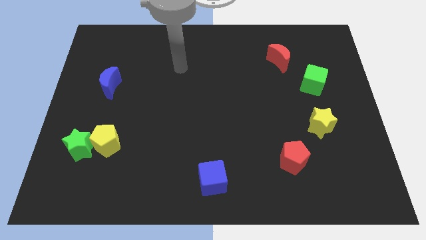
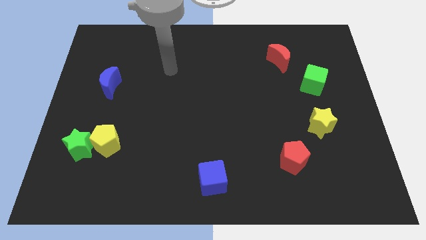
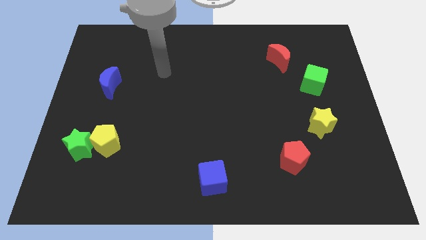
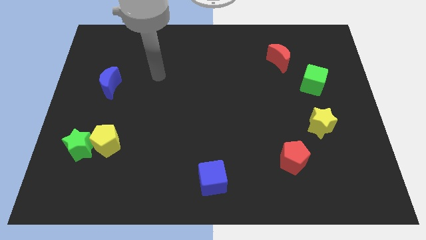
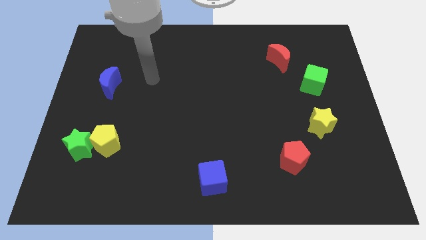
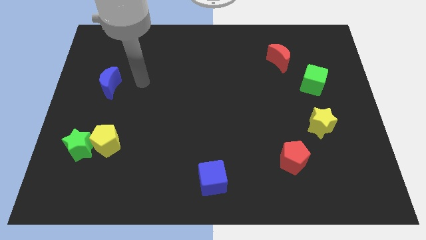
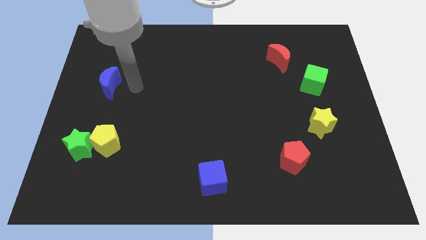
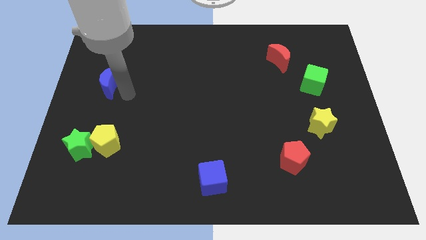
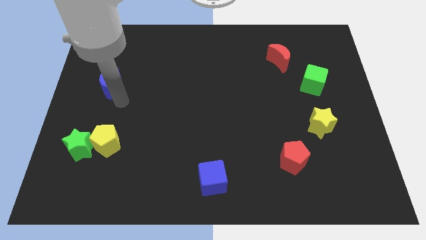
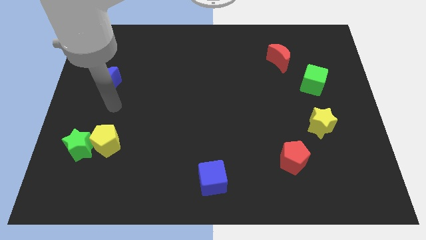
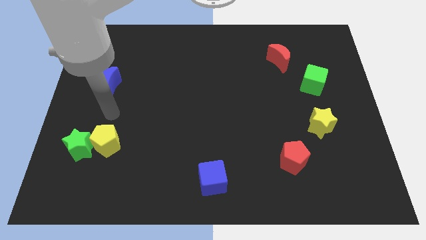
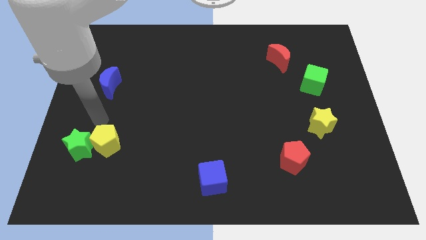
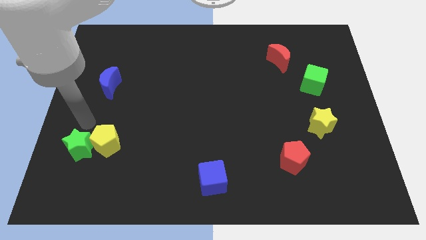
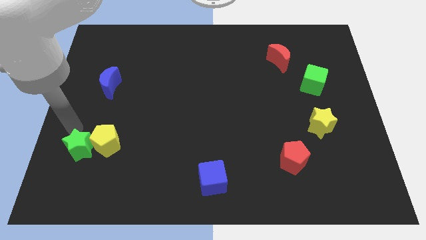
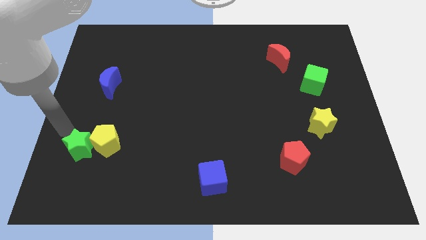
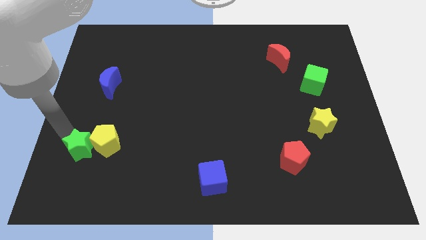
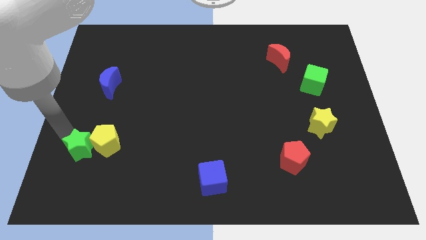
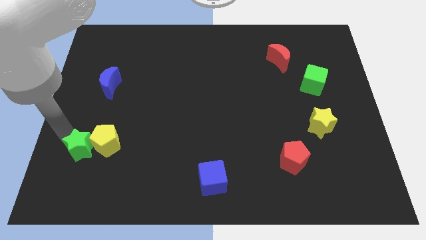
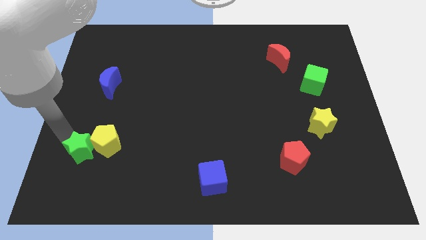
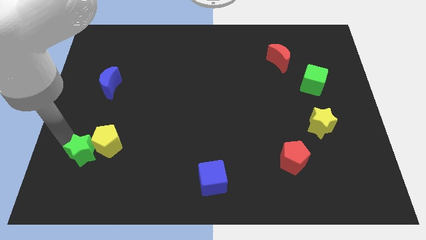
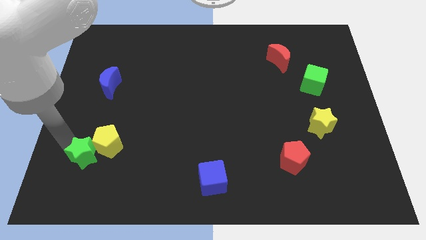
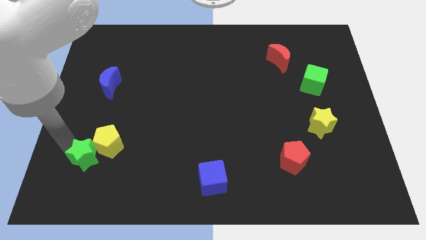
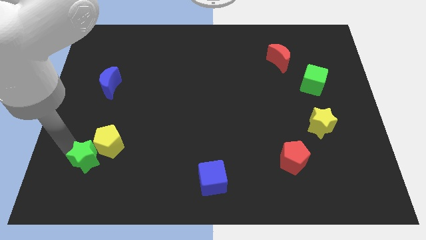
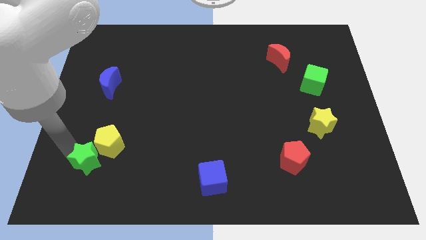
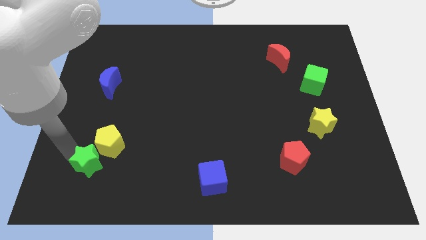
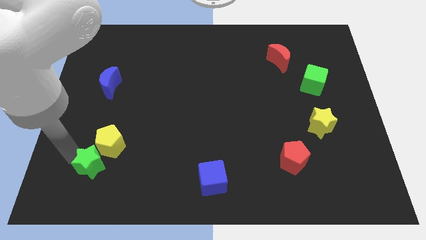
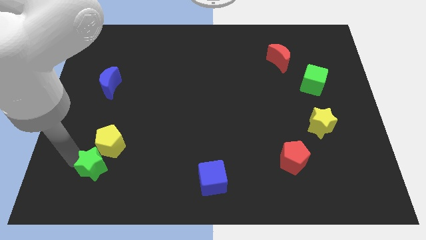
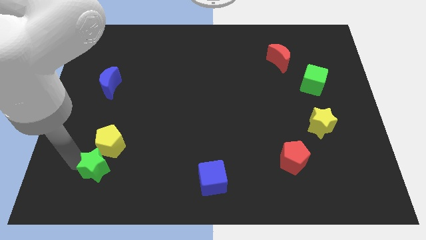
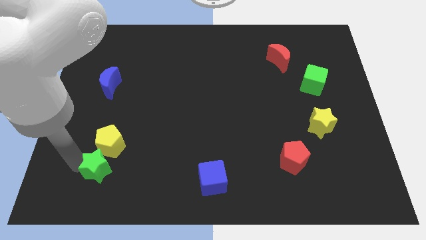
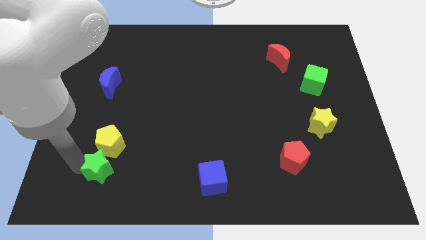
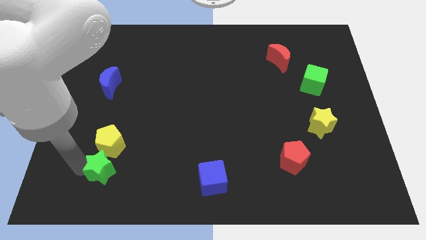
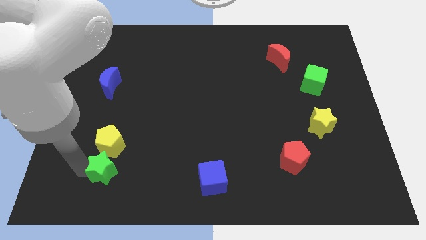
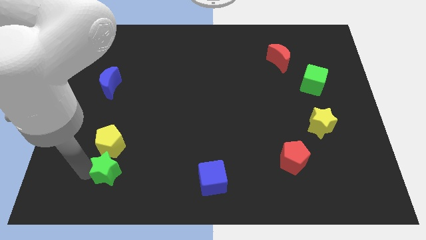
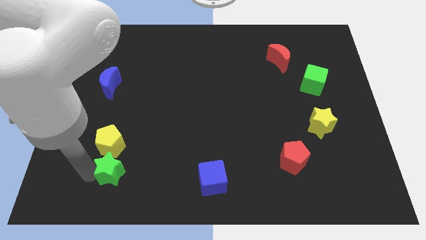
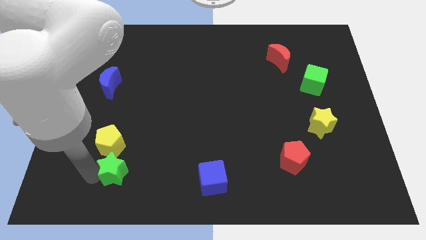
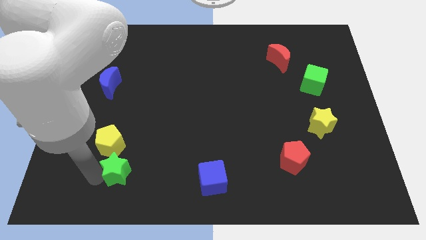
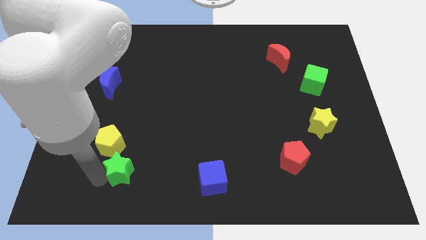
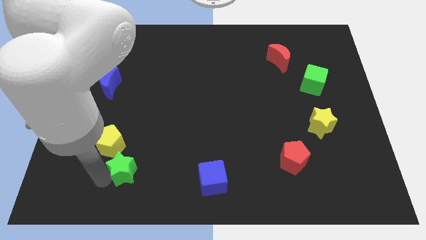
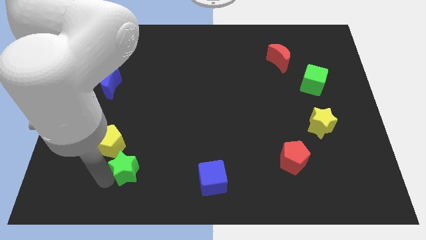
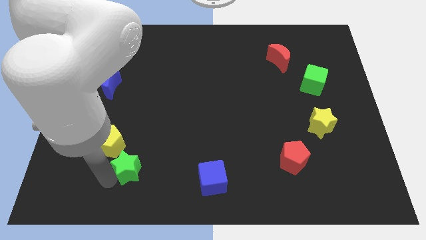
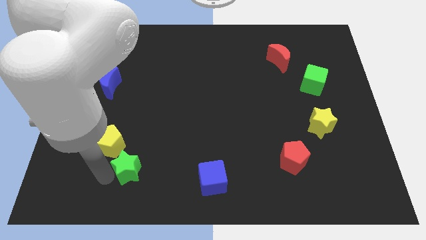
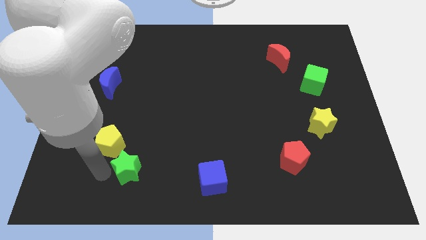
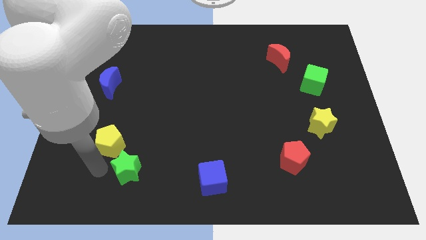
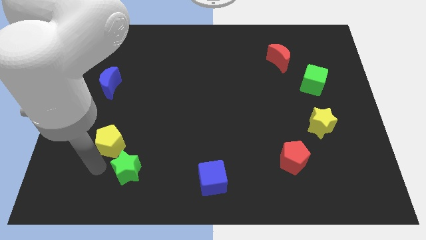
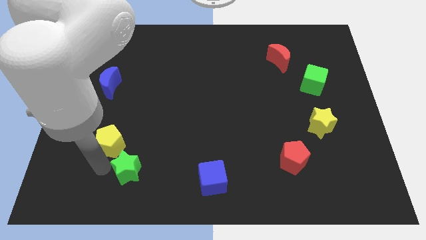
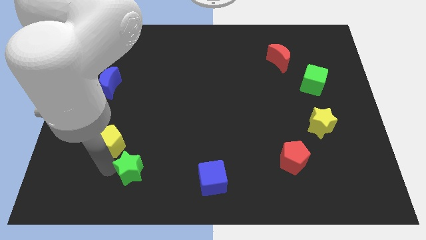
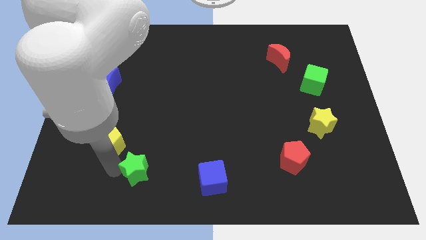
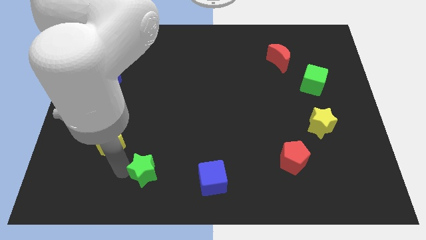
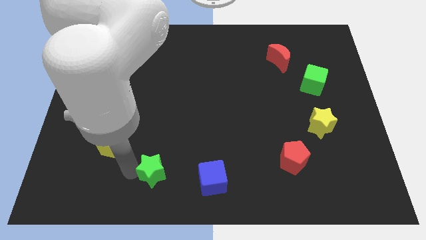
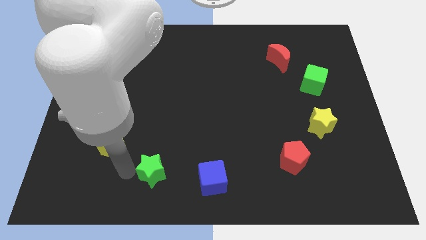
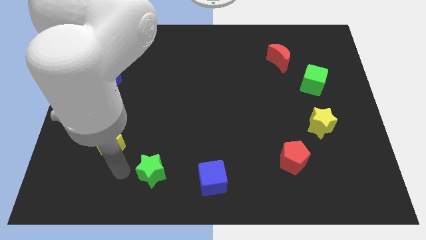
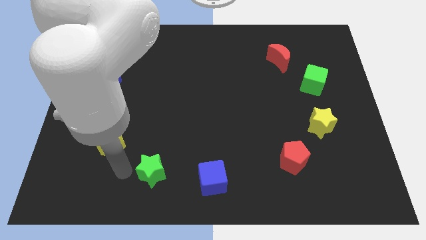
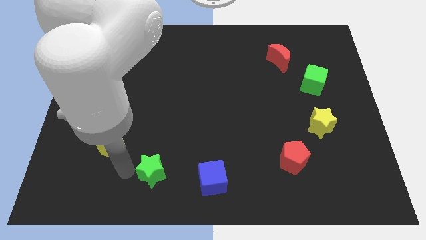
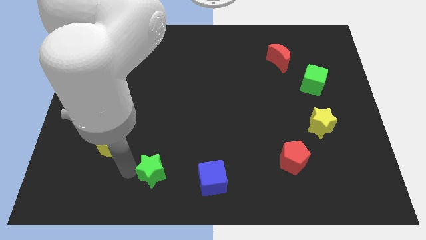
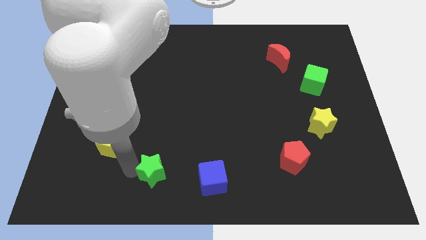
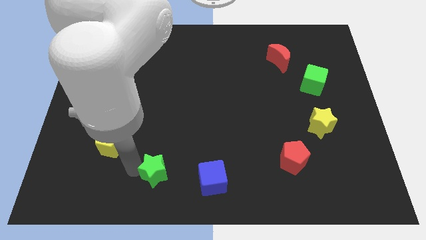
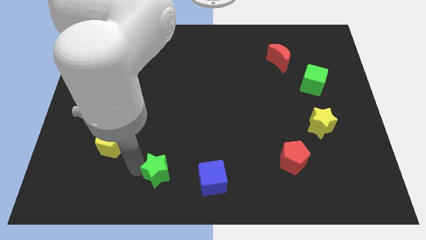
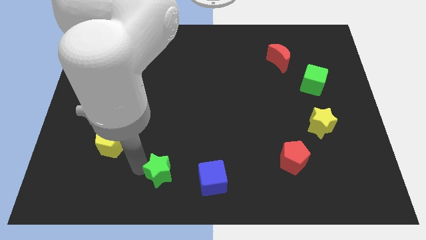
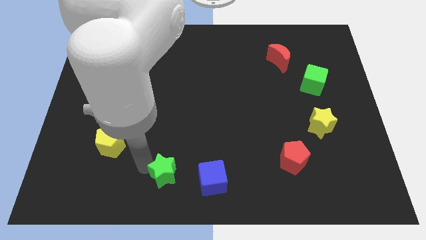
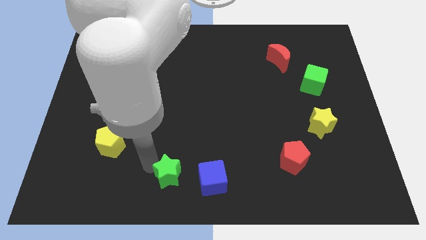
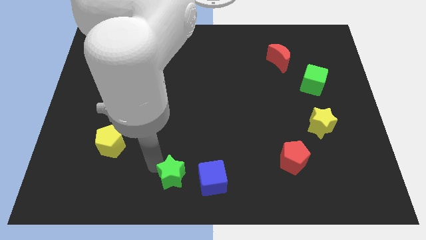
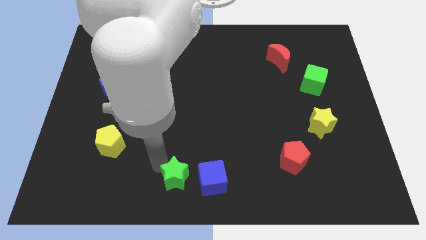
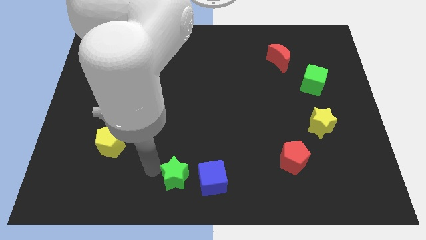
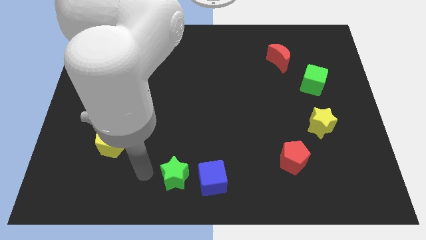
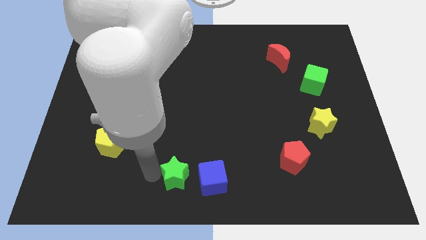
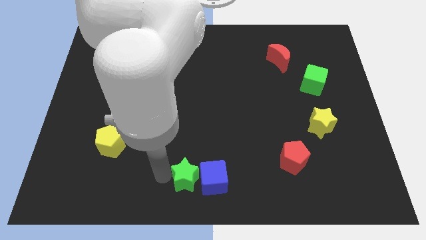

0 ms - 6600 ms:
slide the green star to the blue cube

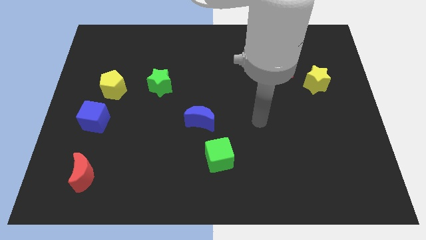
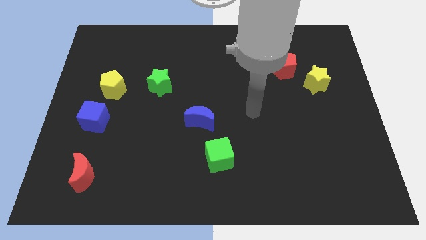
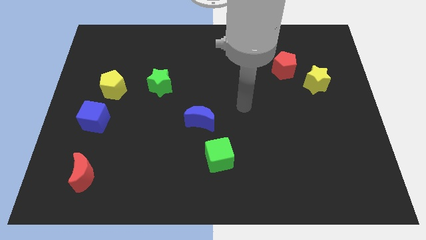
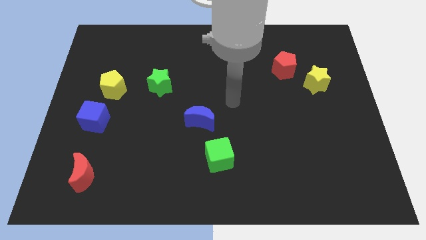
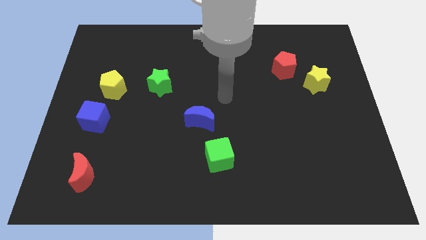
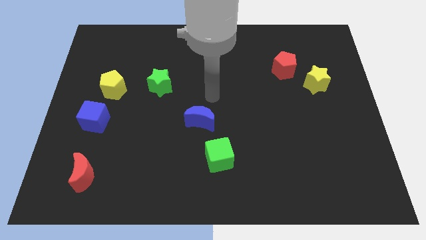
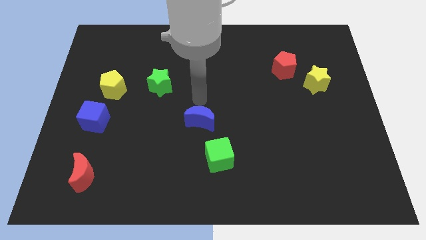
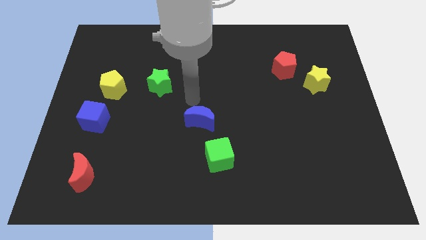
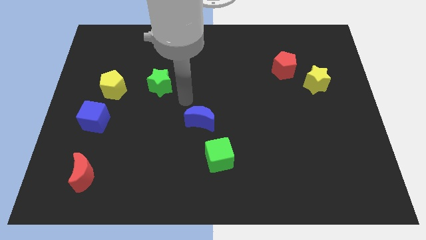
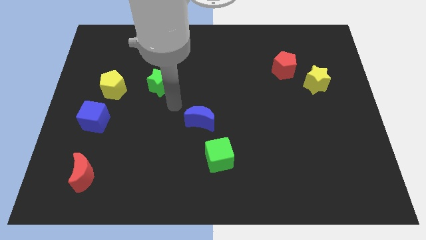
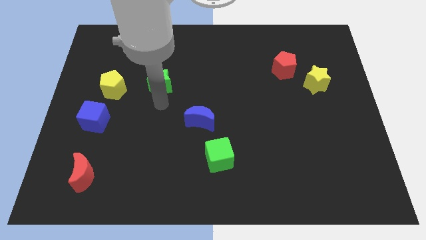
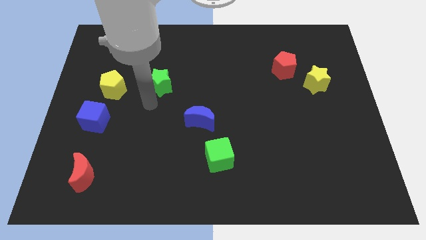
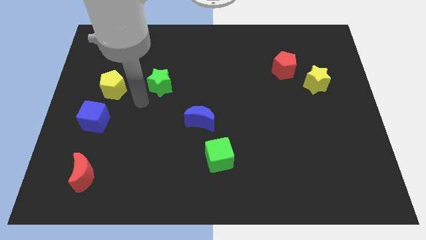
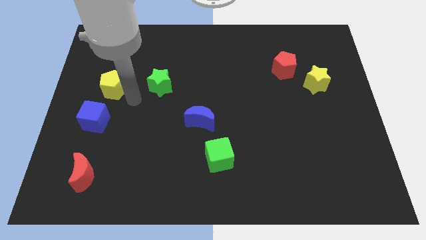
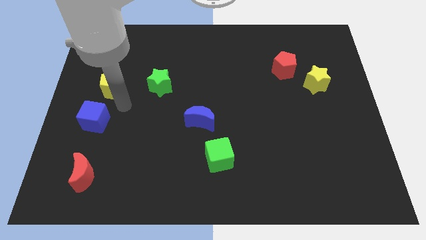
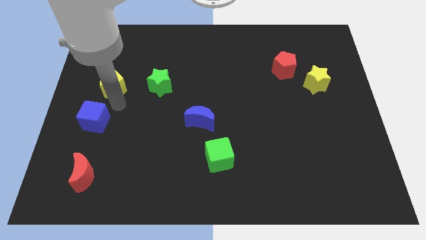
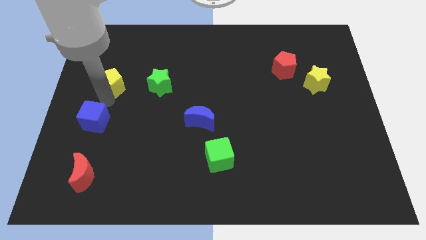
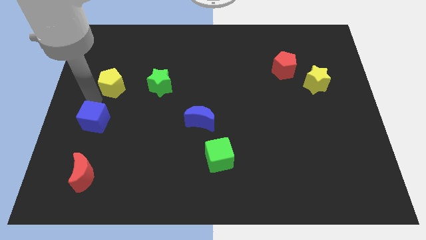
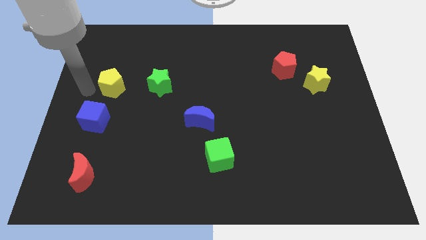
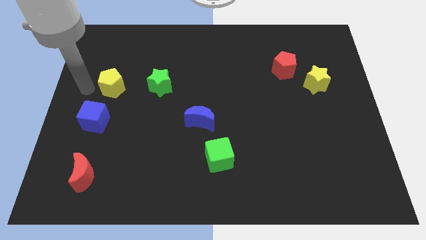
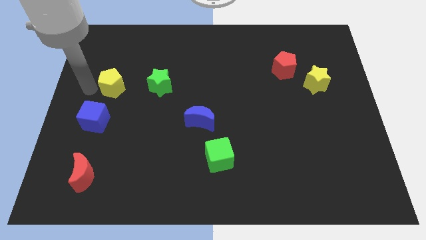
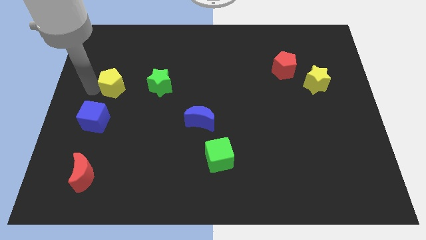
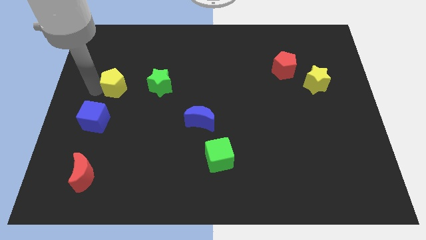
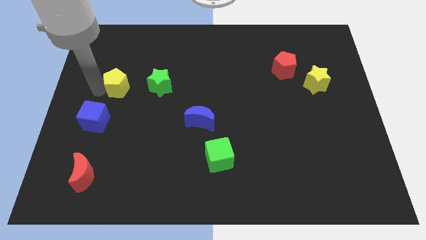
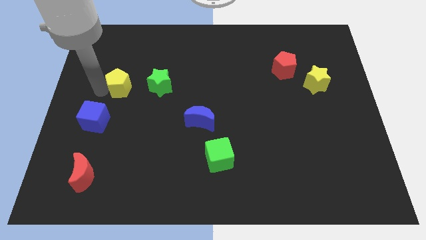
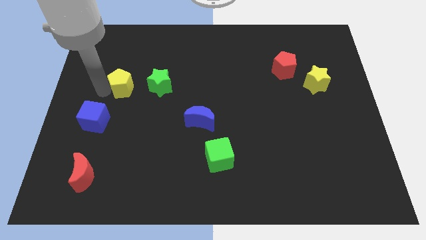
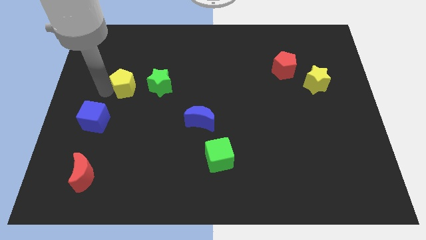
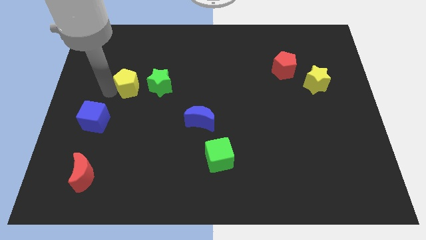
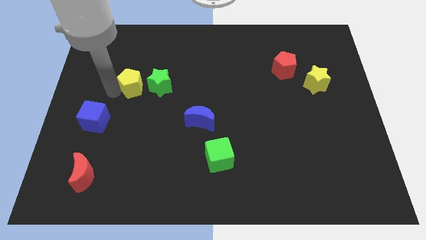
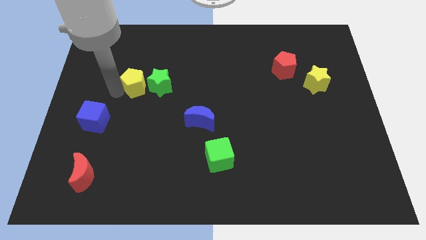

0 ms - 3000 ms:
move the yellow pentagon towards the green star
